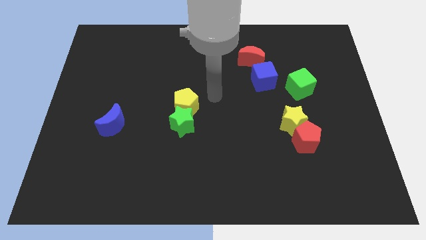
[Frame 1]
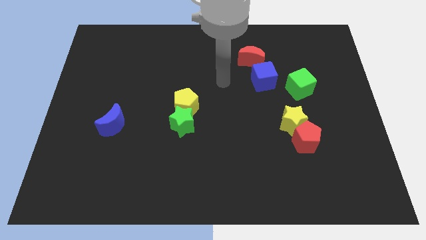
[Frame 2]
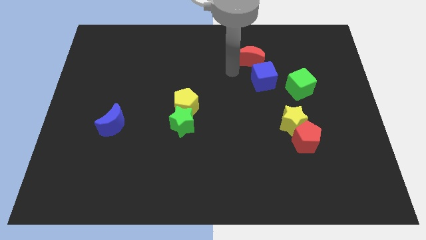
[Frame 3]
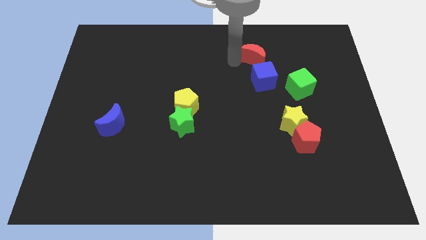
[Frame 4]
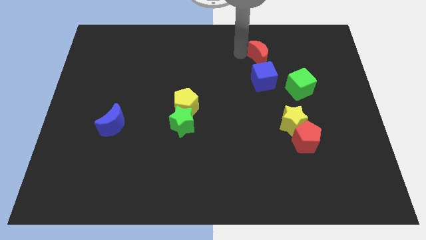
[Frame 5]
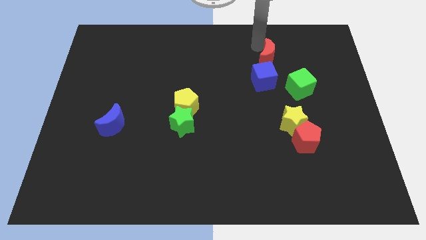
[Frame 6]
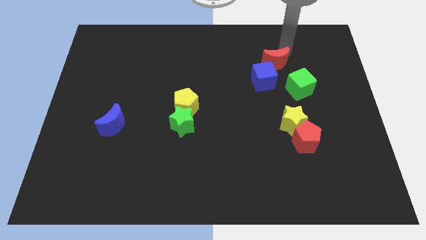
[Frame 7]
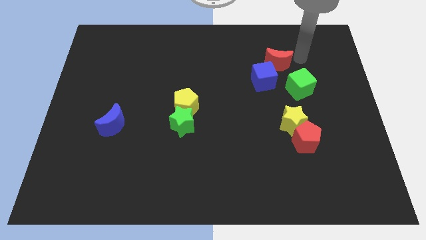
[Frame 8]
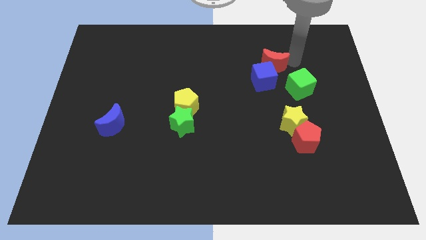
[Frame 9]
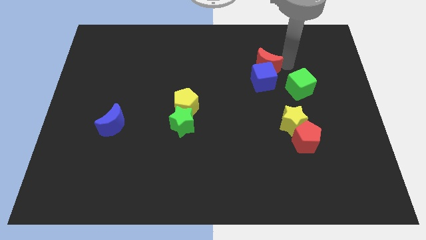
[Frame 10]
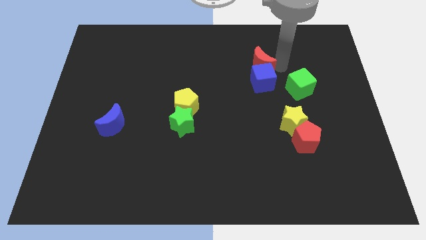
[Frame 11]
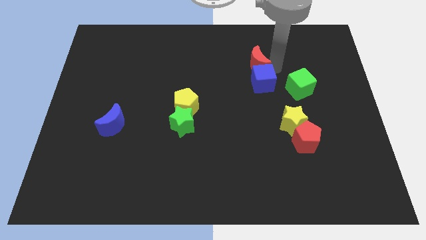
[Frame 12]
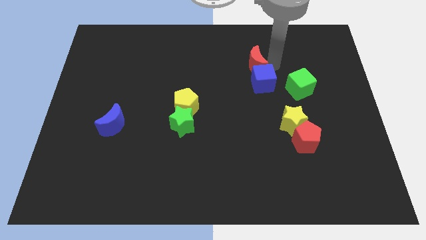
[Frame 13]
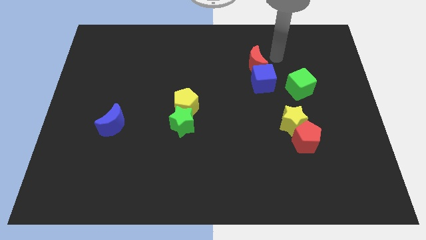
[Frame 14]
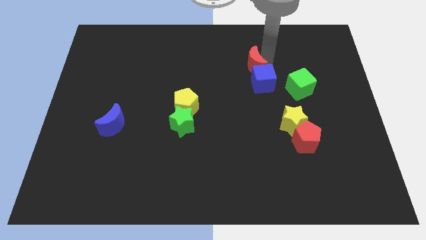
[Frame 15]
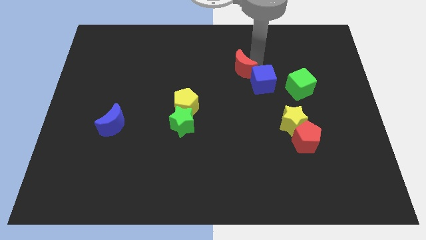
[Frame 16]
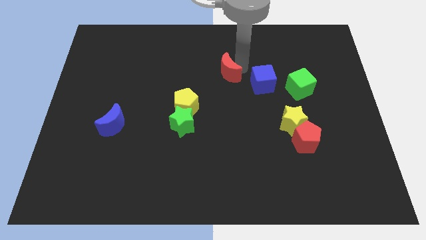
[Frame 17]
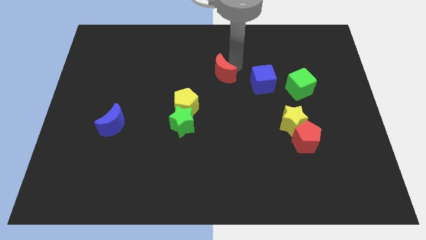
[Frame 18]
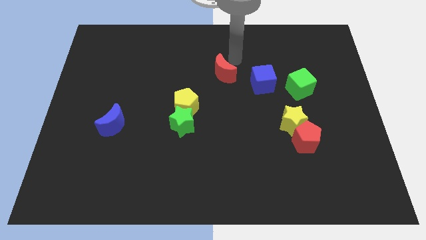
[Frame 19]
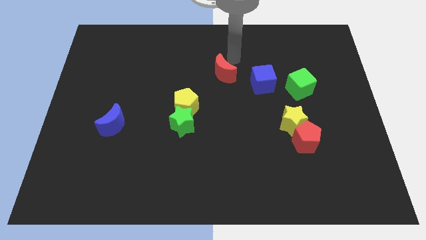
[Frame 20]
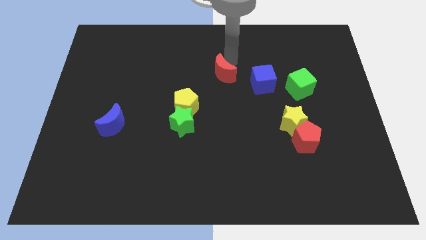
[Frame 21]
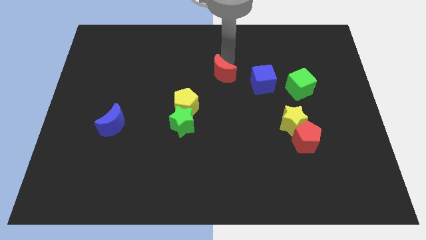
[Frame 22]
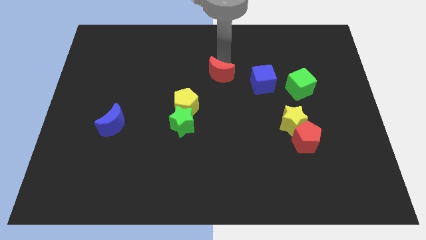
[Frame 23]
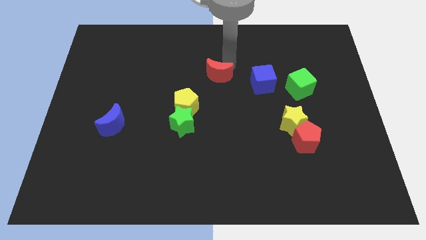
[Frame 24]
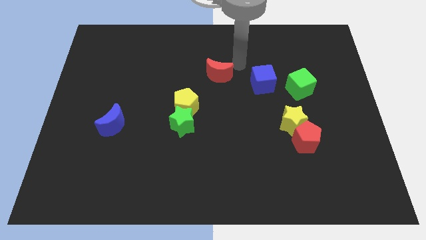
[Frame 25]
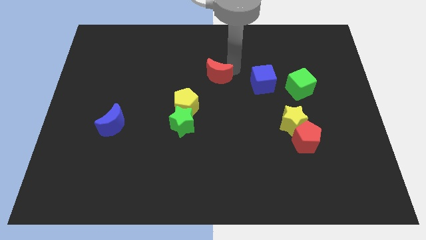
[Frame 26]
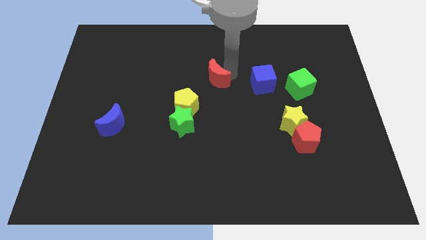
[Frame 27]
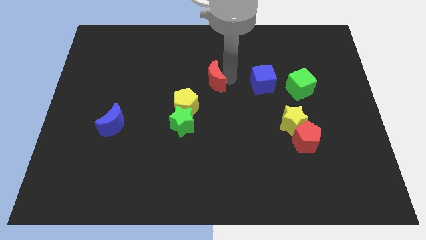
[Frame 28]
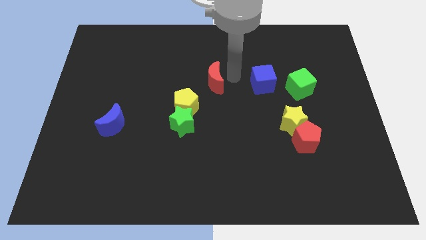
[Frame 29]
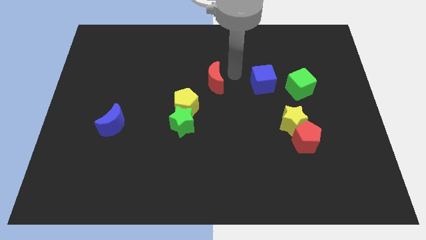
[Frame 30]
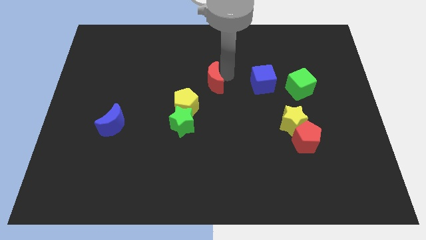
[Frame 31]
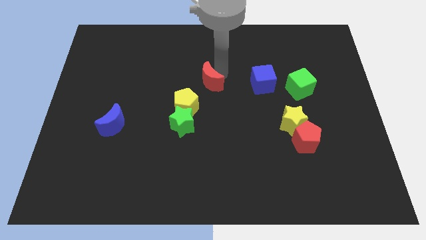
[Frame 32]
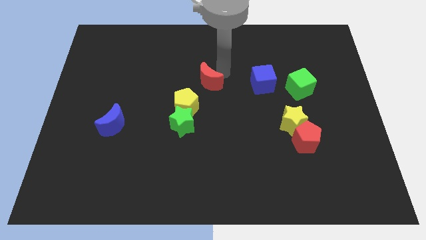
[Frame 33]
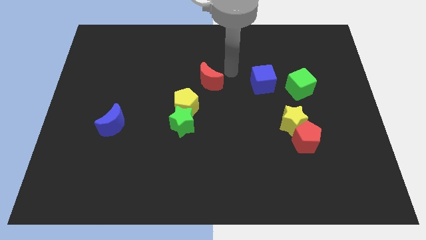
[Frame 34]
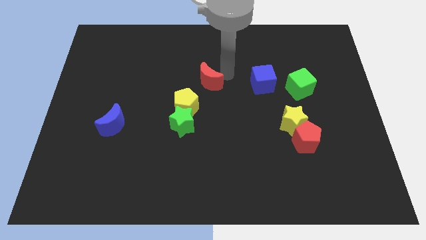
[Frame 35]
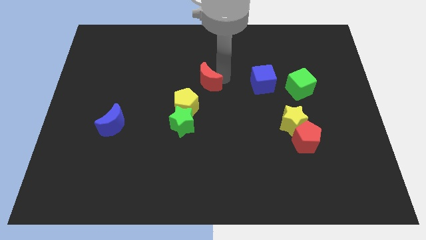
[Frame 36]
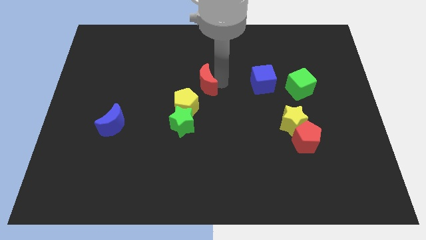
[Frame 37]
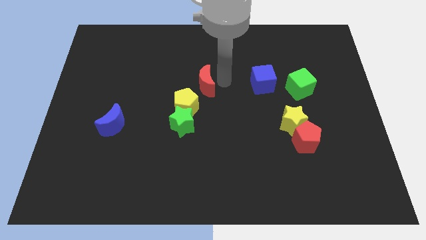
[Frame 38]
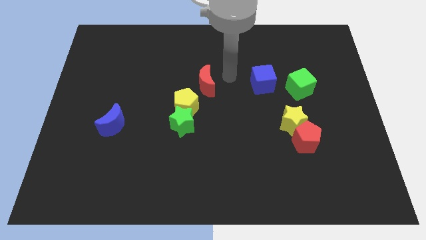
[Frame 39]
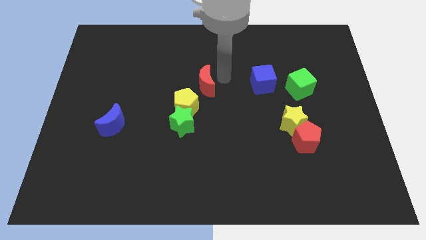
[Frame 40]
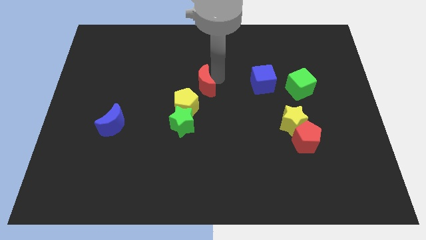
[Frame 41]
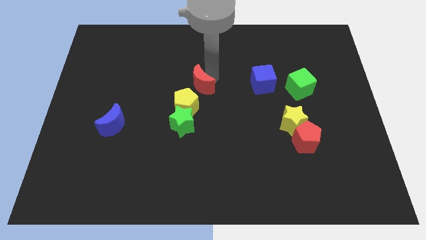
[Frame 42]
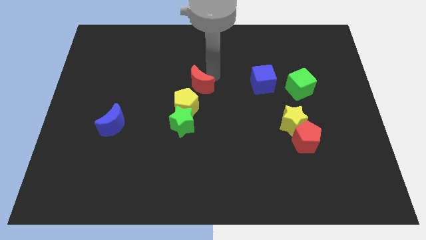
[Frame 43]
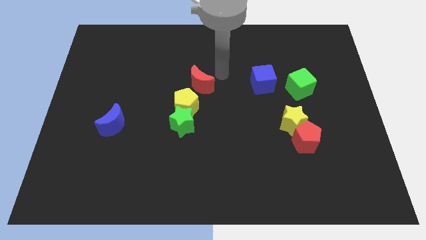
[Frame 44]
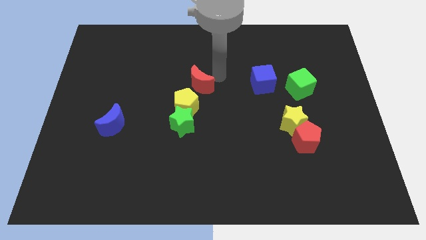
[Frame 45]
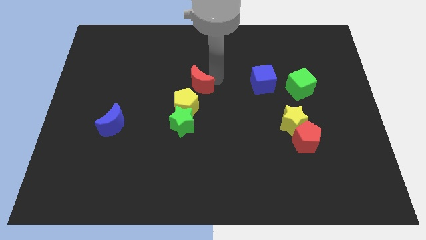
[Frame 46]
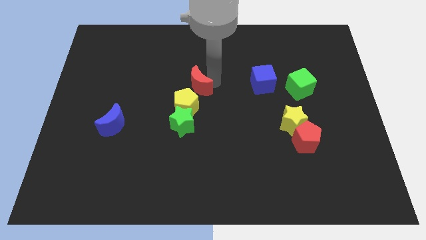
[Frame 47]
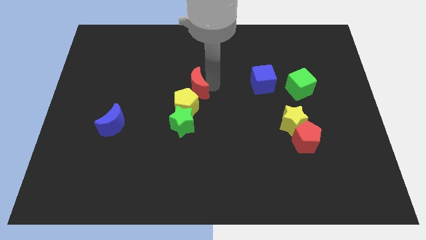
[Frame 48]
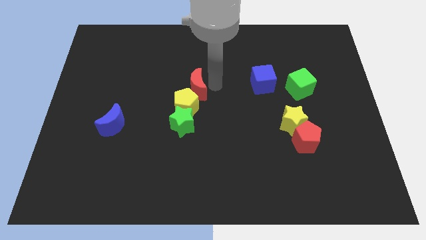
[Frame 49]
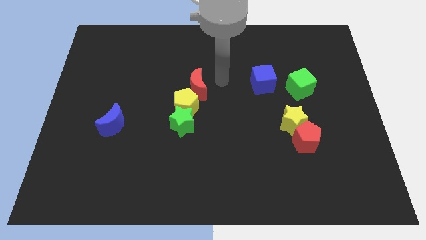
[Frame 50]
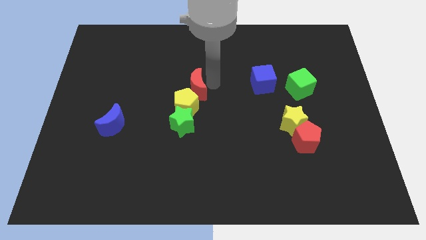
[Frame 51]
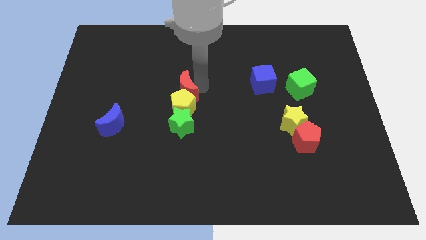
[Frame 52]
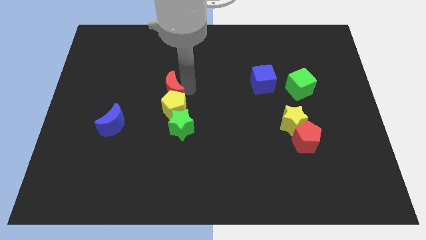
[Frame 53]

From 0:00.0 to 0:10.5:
slide the red moon down and left

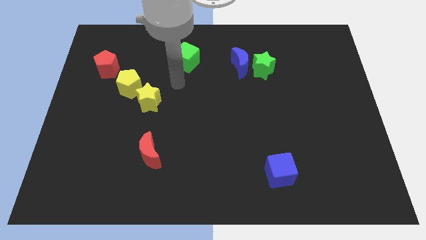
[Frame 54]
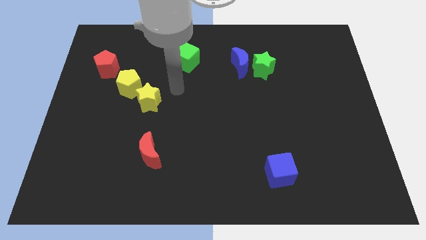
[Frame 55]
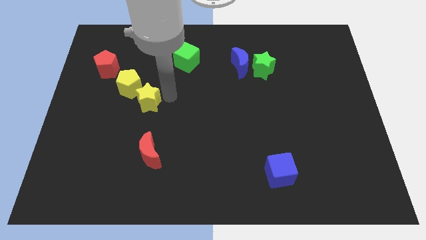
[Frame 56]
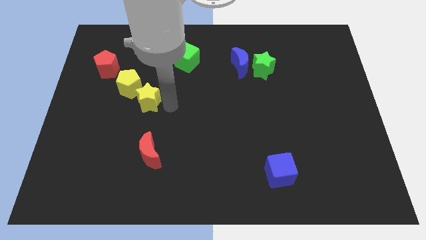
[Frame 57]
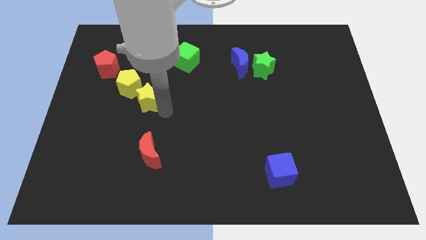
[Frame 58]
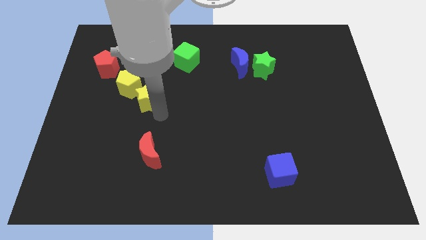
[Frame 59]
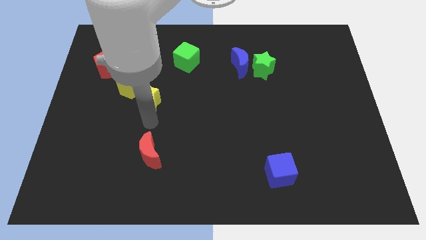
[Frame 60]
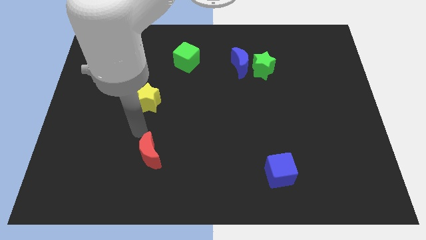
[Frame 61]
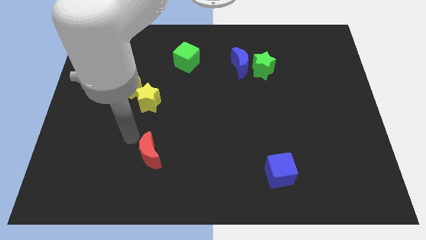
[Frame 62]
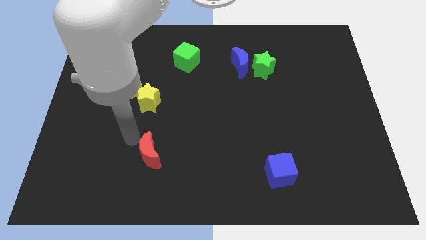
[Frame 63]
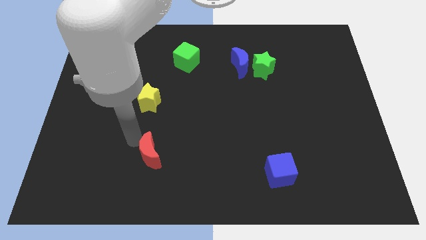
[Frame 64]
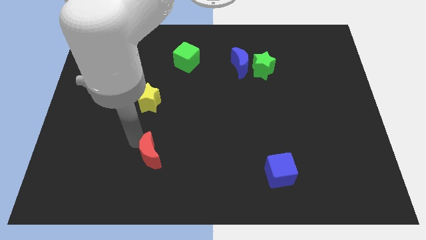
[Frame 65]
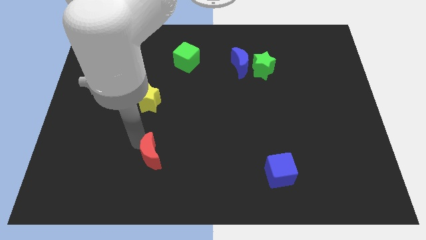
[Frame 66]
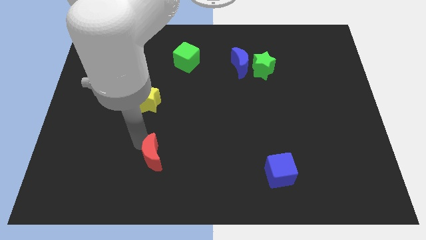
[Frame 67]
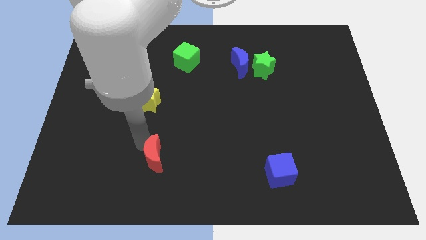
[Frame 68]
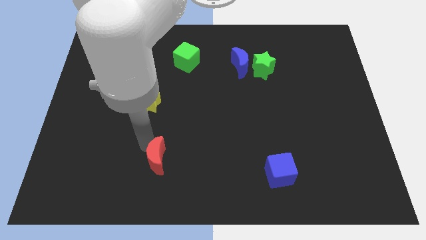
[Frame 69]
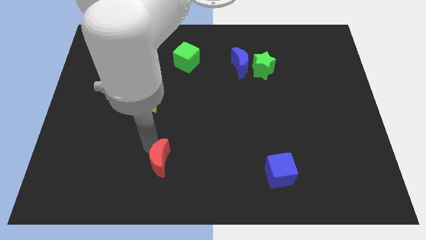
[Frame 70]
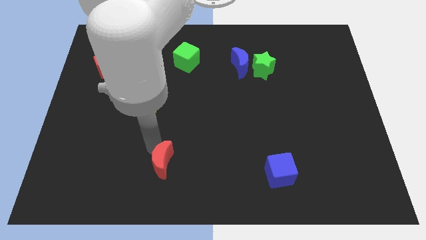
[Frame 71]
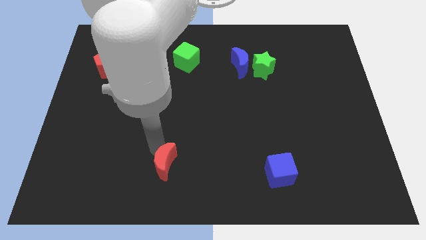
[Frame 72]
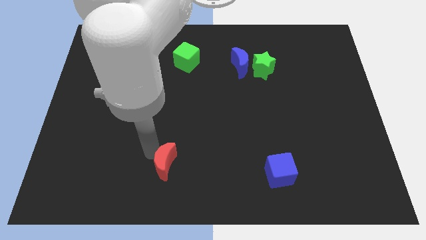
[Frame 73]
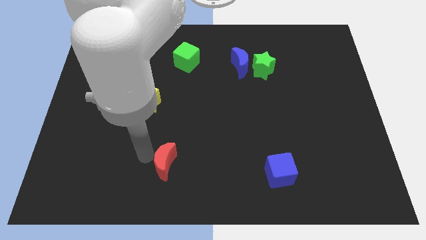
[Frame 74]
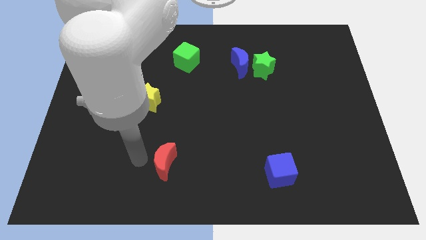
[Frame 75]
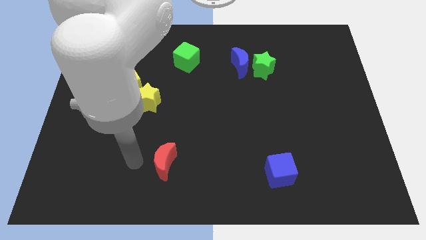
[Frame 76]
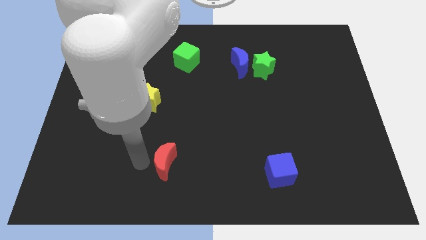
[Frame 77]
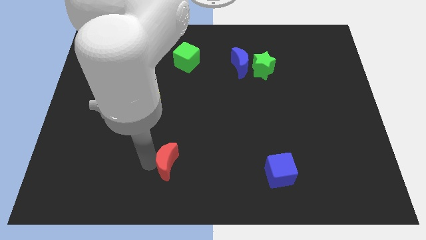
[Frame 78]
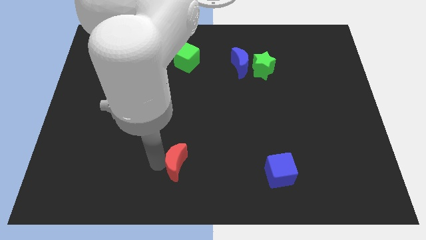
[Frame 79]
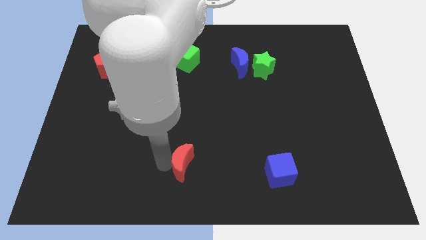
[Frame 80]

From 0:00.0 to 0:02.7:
slightly push the red moon to the right

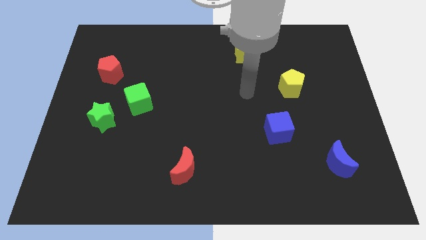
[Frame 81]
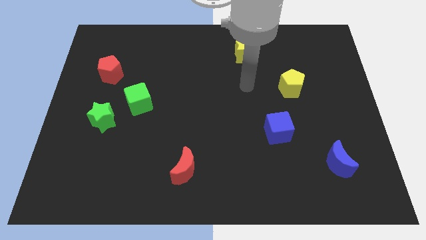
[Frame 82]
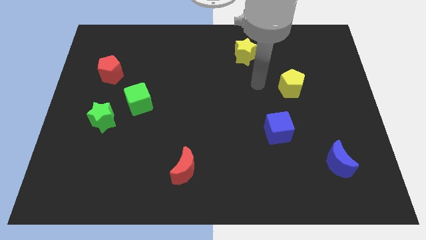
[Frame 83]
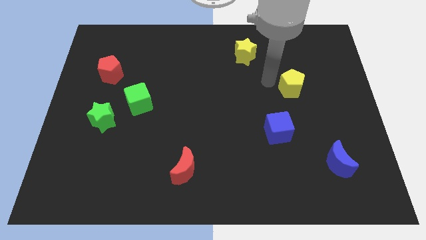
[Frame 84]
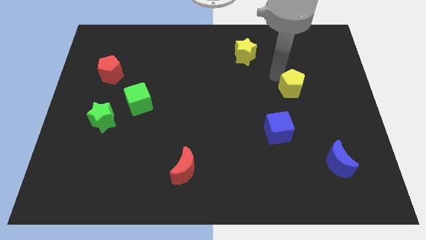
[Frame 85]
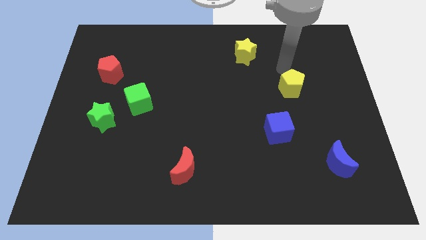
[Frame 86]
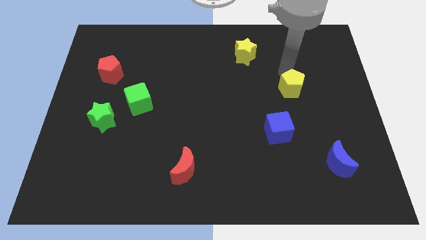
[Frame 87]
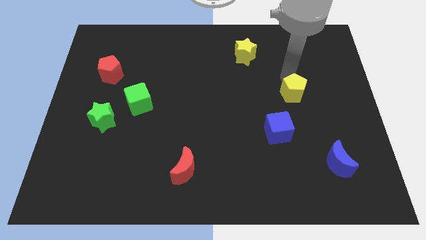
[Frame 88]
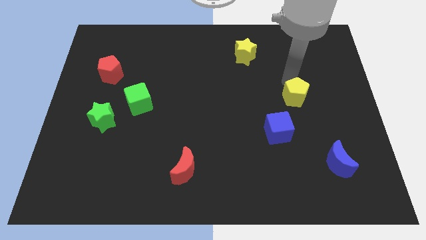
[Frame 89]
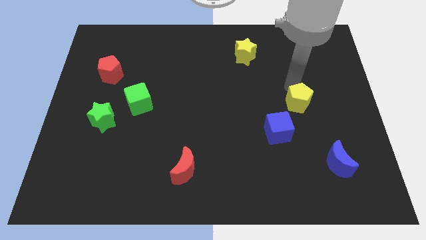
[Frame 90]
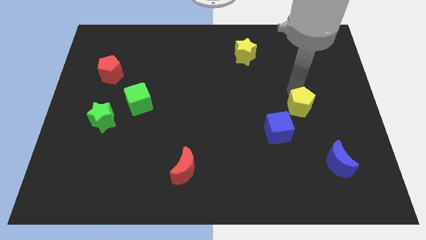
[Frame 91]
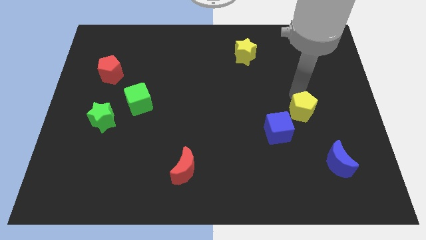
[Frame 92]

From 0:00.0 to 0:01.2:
push the yellow pentagon down slightly
